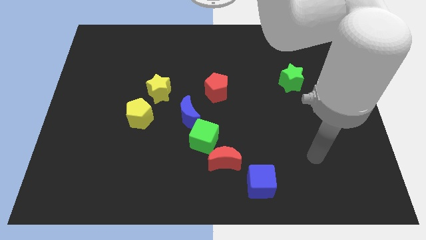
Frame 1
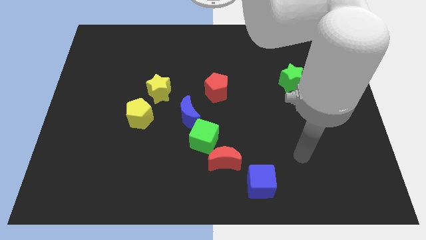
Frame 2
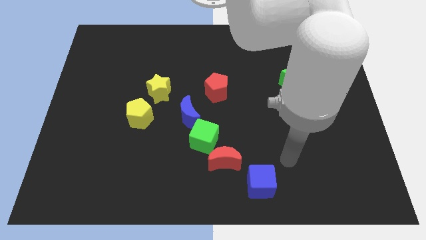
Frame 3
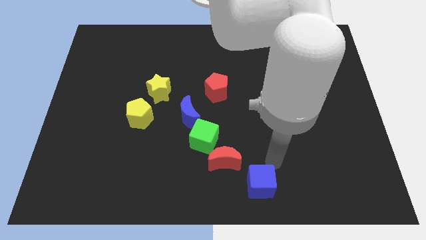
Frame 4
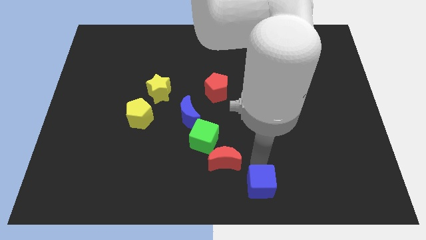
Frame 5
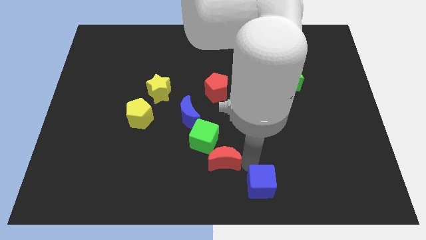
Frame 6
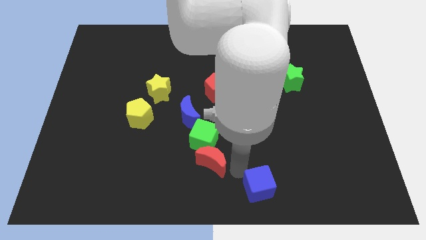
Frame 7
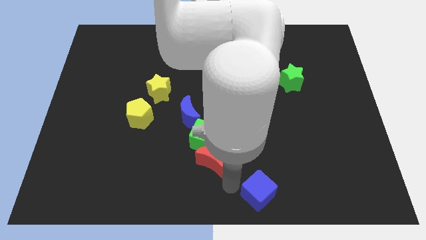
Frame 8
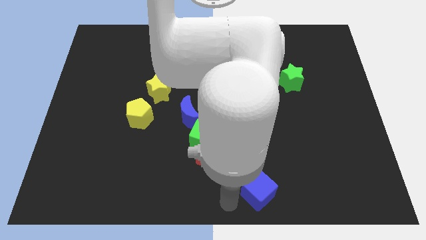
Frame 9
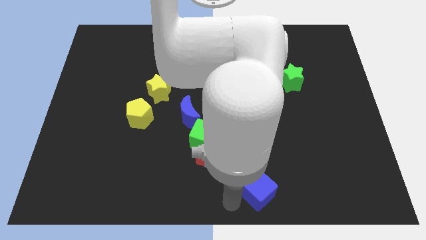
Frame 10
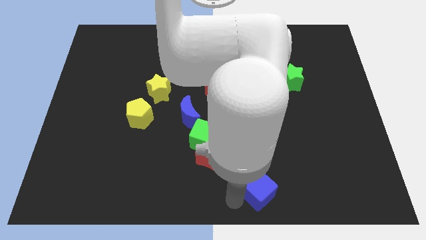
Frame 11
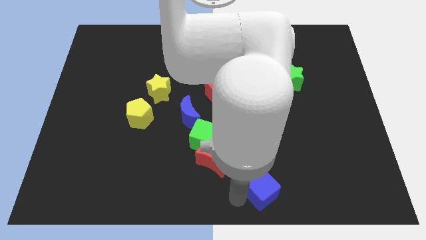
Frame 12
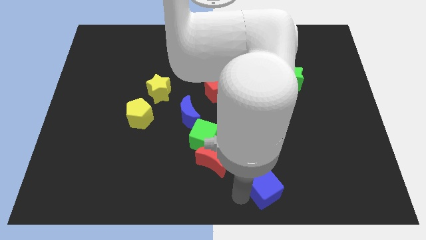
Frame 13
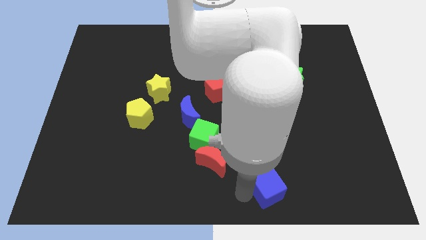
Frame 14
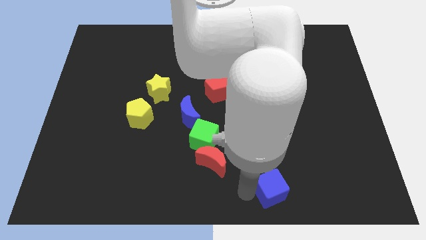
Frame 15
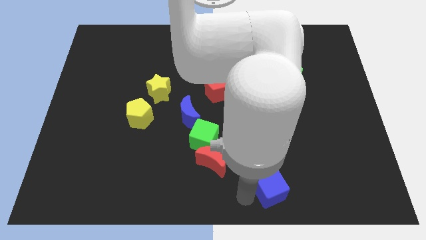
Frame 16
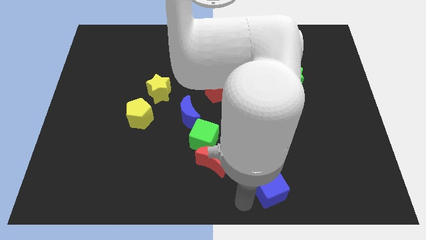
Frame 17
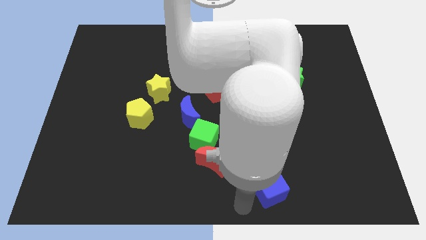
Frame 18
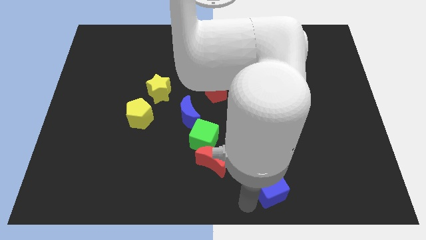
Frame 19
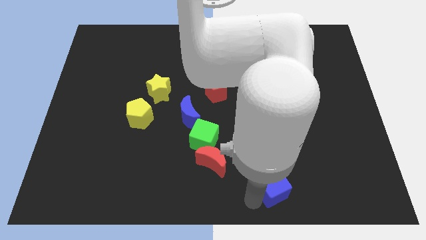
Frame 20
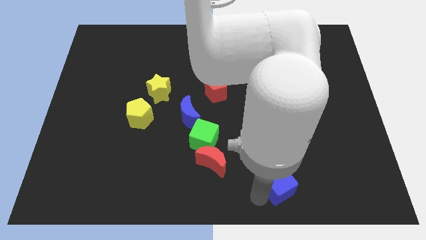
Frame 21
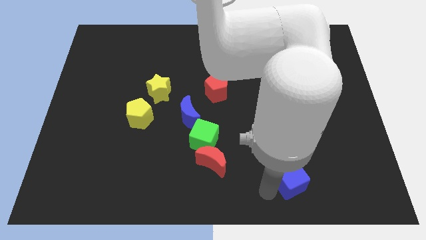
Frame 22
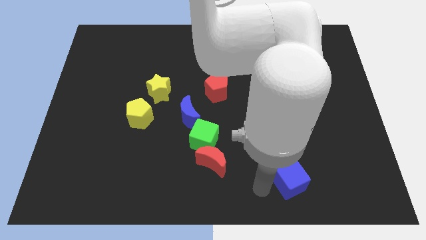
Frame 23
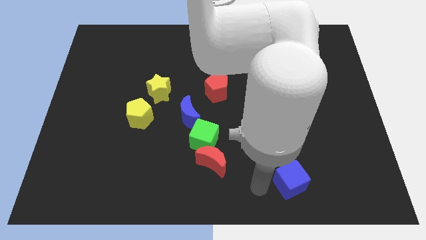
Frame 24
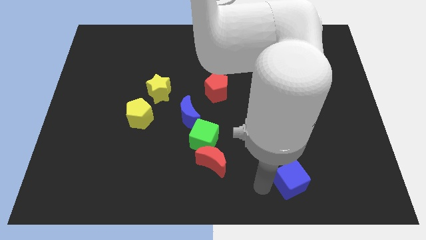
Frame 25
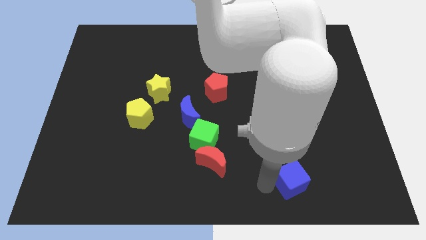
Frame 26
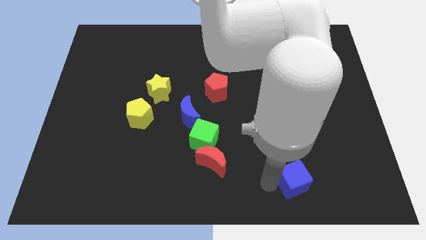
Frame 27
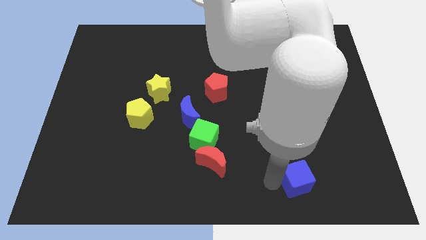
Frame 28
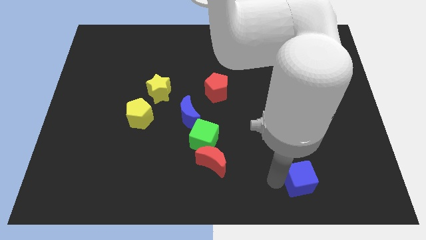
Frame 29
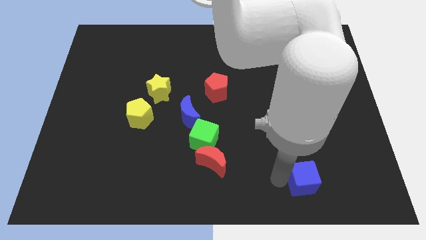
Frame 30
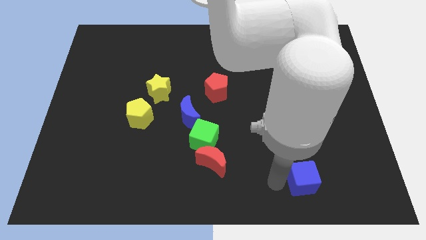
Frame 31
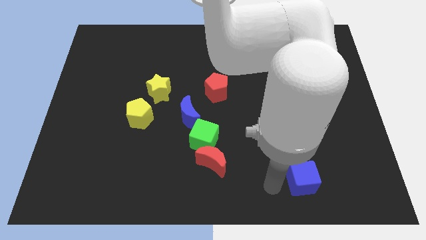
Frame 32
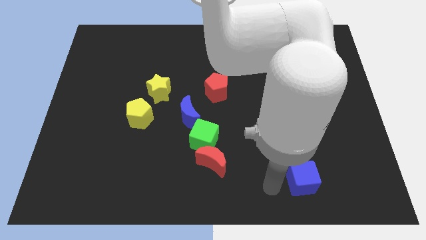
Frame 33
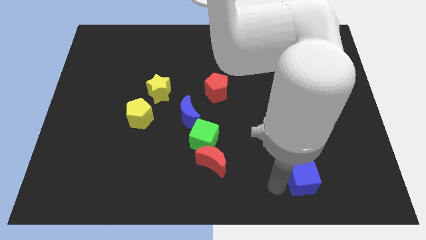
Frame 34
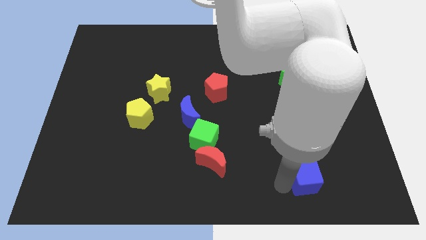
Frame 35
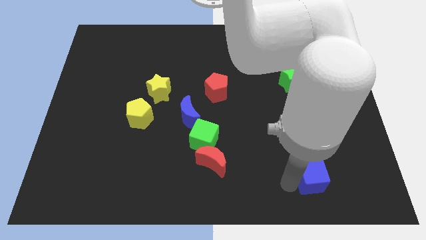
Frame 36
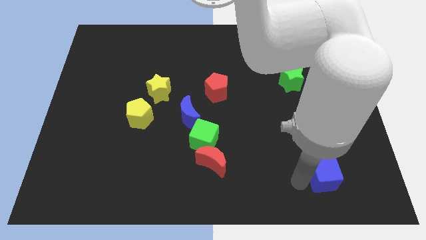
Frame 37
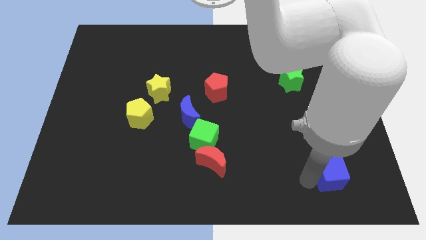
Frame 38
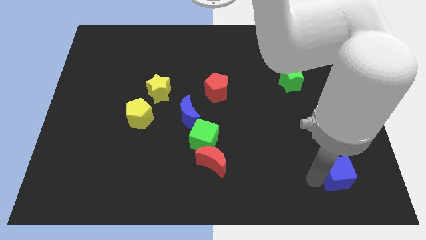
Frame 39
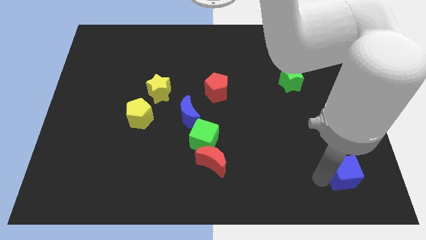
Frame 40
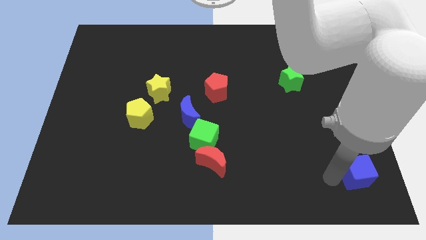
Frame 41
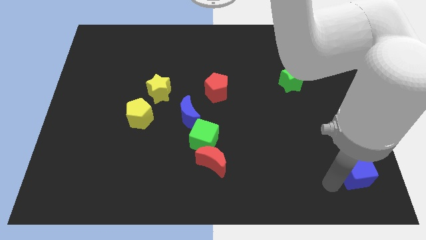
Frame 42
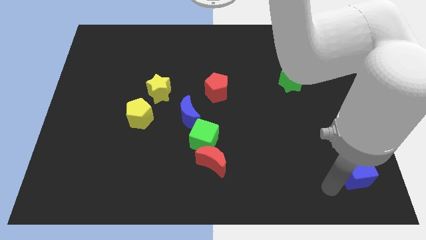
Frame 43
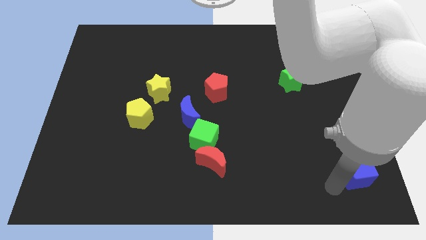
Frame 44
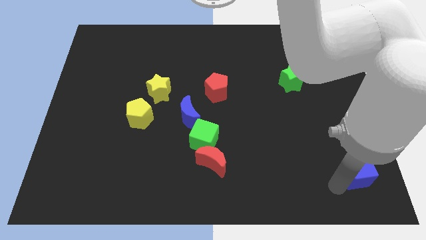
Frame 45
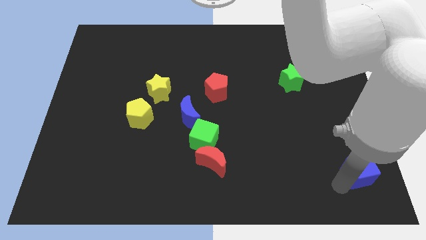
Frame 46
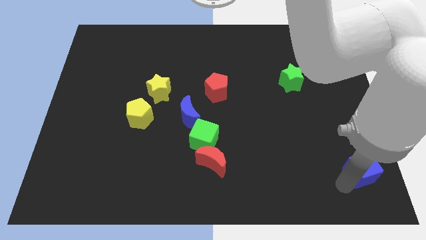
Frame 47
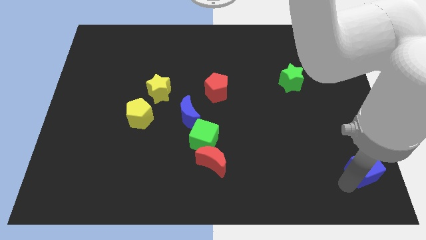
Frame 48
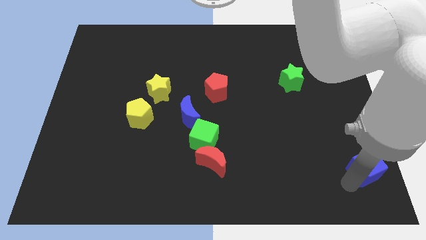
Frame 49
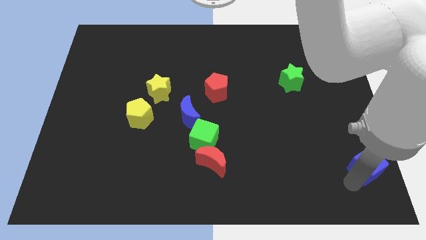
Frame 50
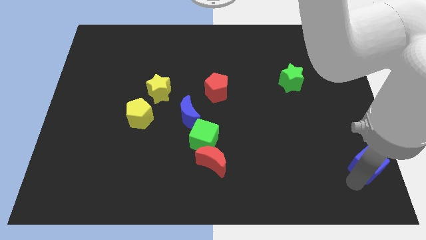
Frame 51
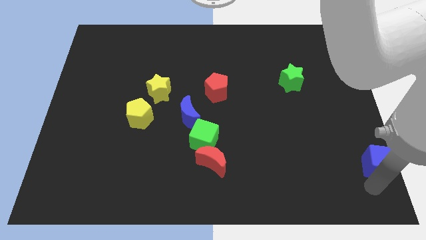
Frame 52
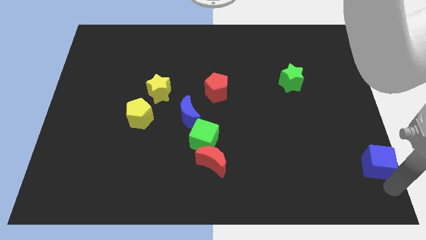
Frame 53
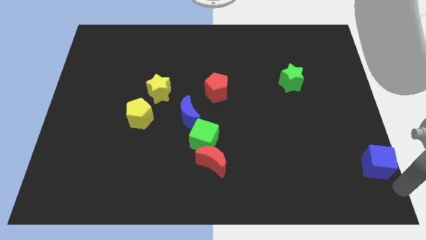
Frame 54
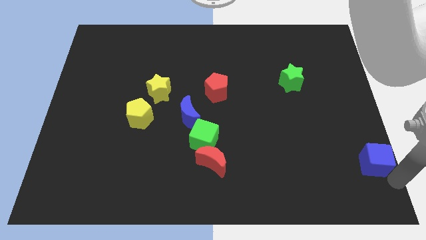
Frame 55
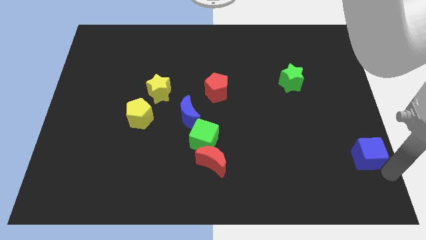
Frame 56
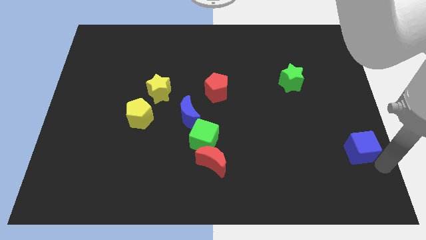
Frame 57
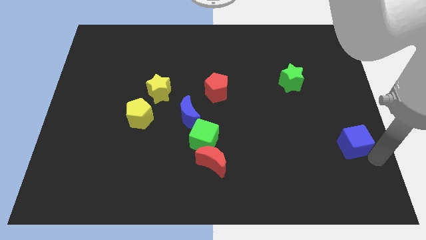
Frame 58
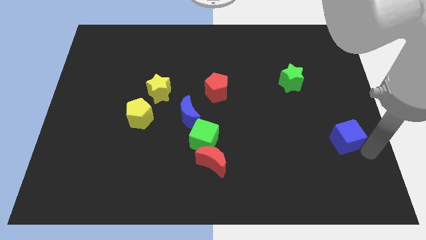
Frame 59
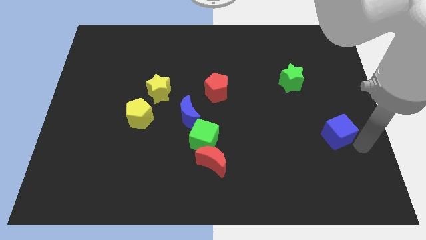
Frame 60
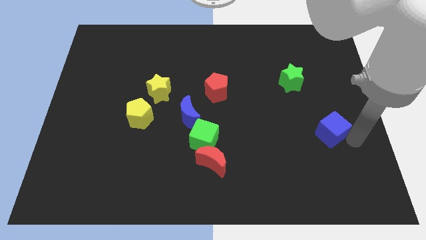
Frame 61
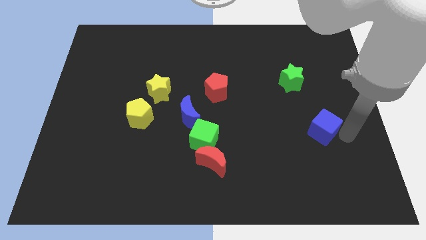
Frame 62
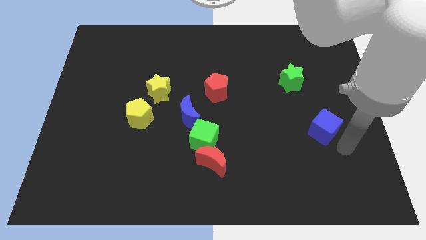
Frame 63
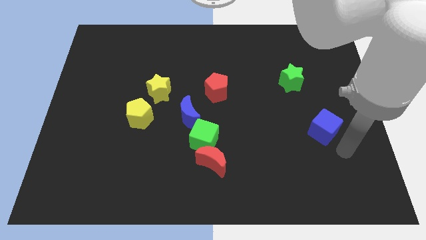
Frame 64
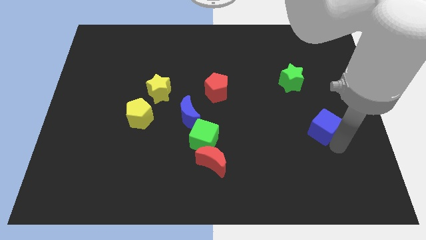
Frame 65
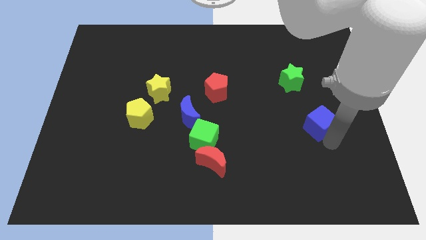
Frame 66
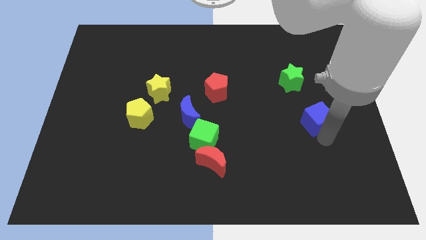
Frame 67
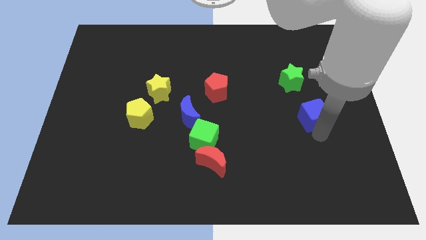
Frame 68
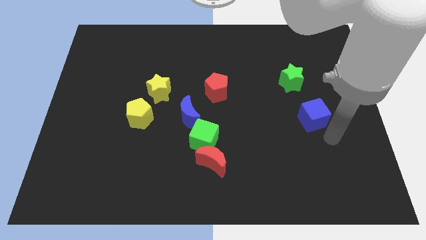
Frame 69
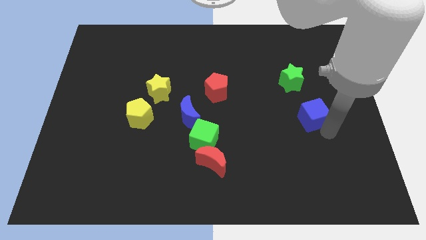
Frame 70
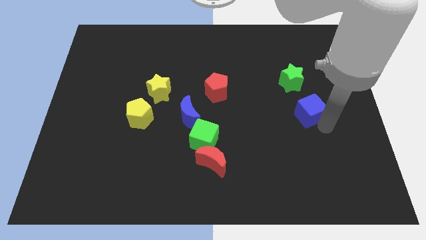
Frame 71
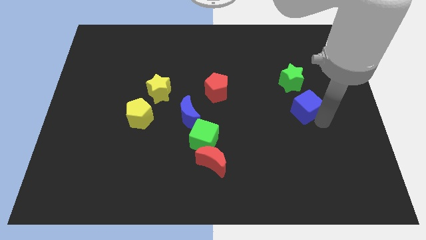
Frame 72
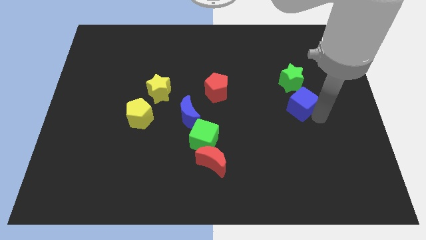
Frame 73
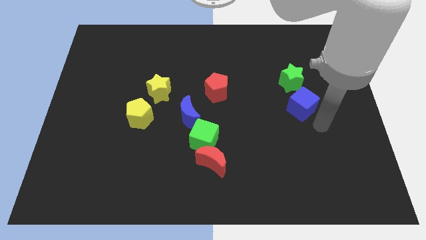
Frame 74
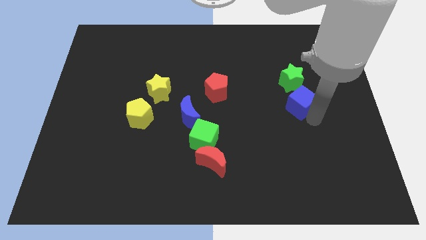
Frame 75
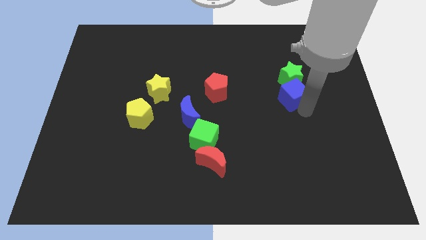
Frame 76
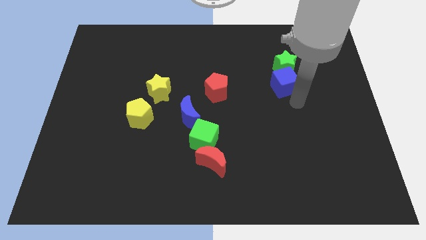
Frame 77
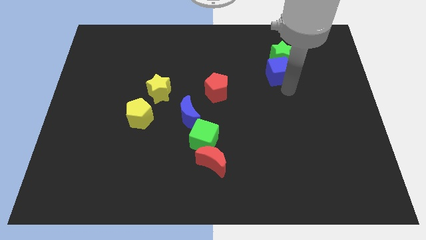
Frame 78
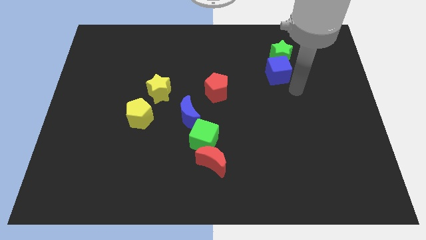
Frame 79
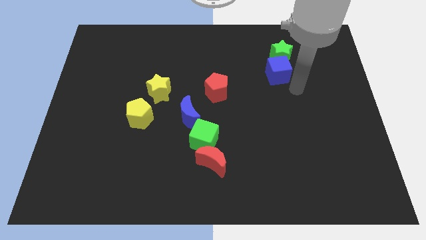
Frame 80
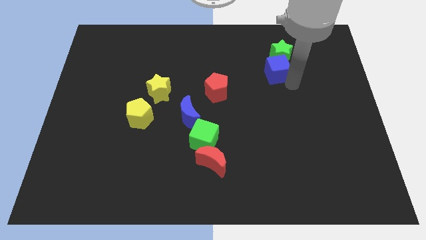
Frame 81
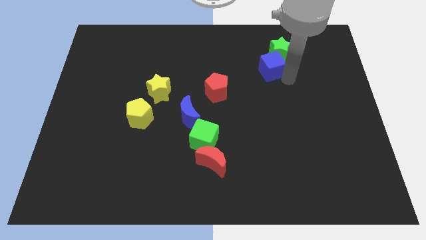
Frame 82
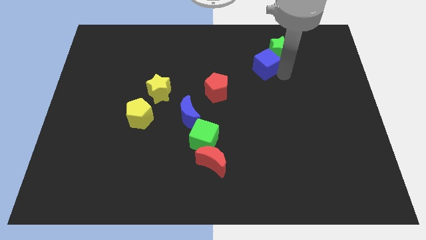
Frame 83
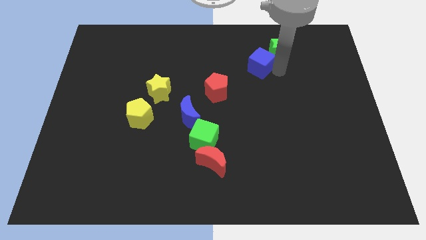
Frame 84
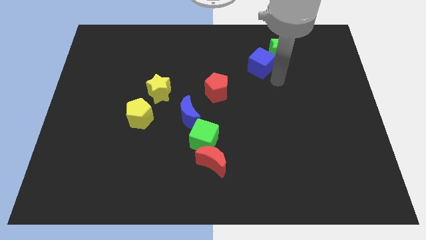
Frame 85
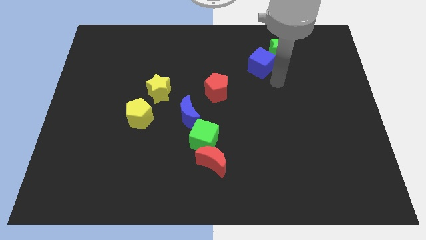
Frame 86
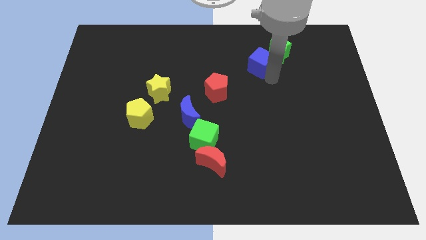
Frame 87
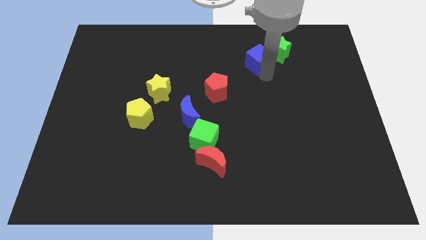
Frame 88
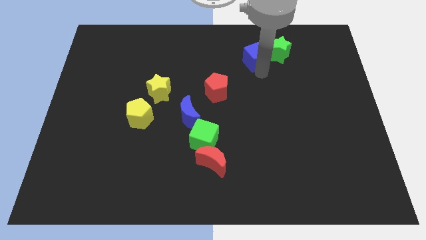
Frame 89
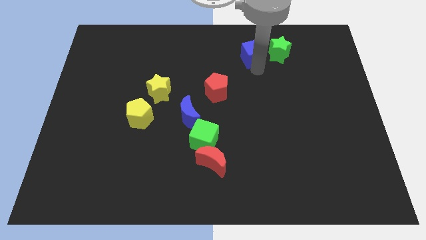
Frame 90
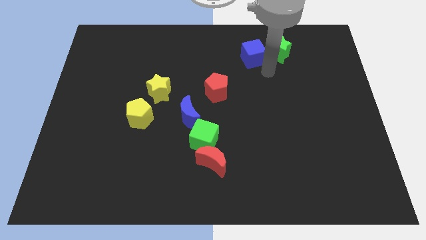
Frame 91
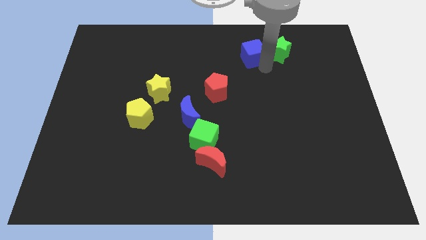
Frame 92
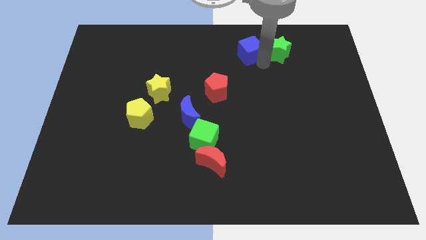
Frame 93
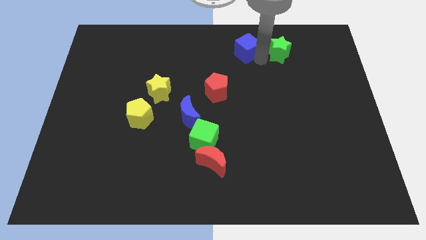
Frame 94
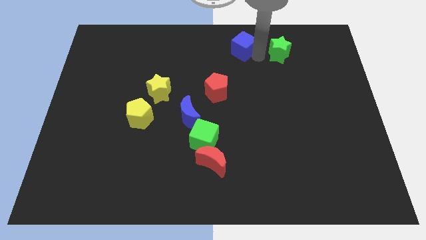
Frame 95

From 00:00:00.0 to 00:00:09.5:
slide the blue cube to the top side
